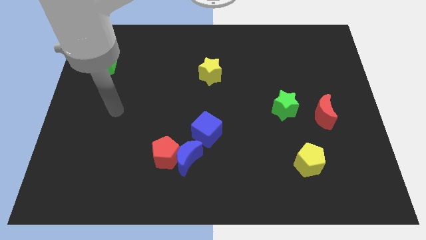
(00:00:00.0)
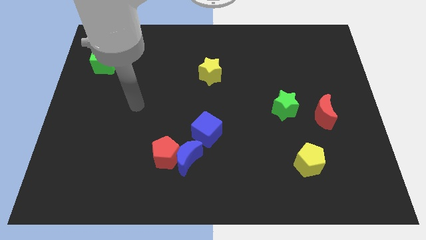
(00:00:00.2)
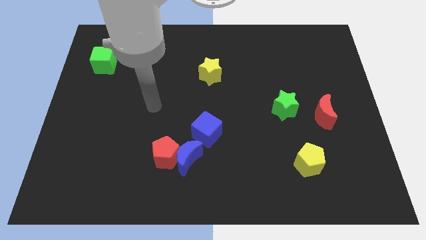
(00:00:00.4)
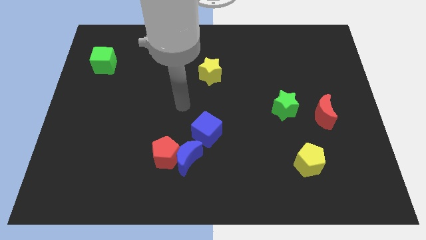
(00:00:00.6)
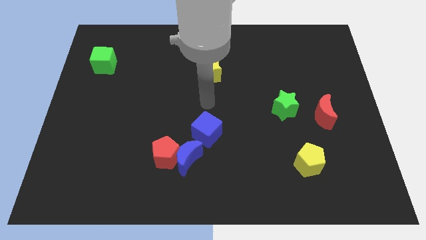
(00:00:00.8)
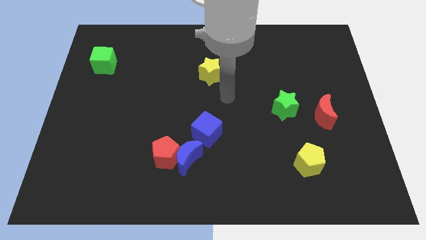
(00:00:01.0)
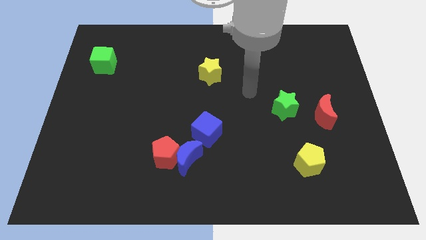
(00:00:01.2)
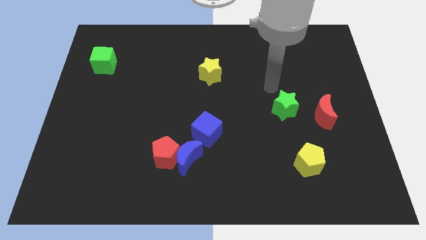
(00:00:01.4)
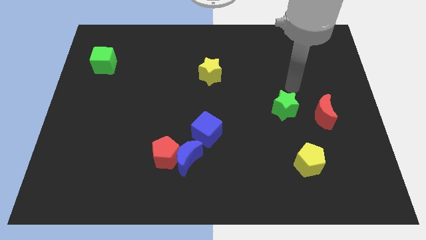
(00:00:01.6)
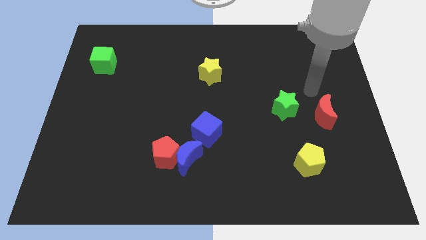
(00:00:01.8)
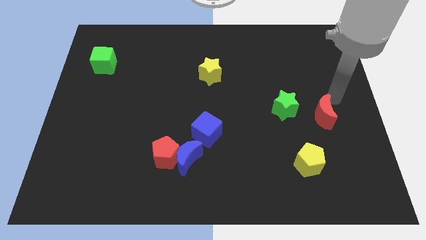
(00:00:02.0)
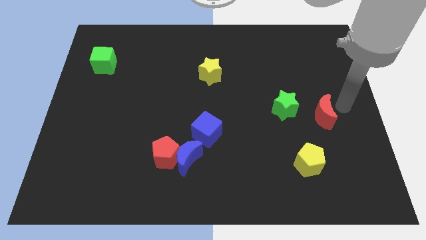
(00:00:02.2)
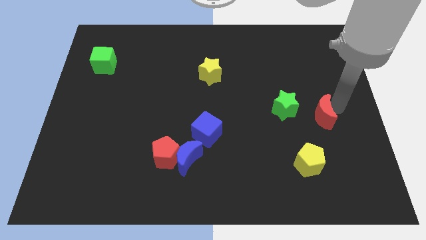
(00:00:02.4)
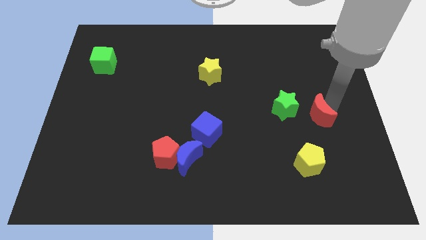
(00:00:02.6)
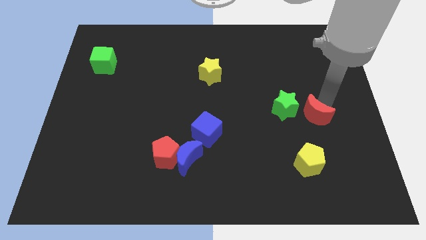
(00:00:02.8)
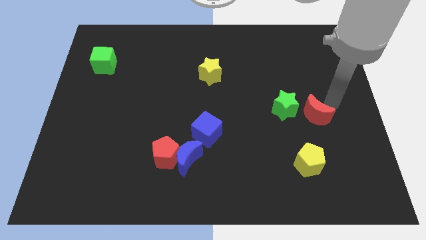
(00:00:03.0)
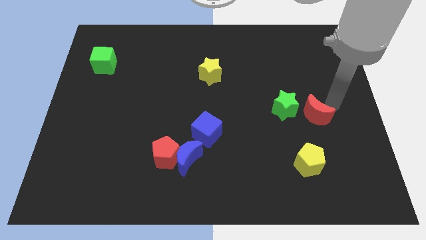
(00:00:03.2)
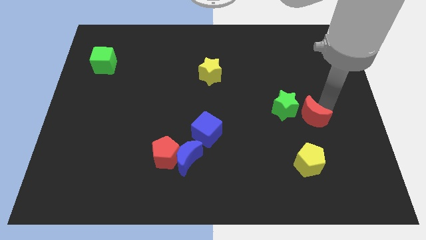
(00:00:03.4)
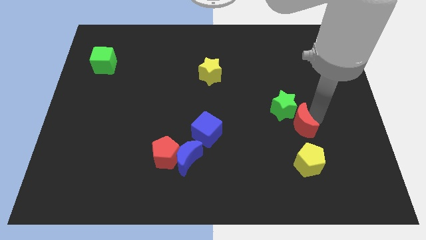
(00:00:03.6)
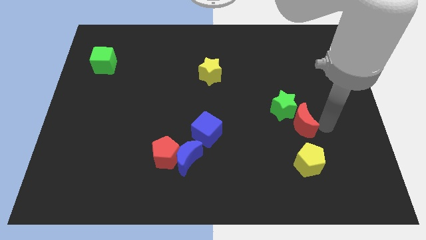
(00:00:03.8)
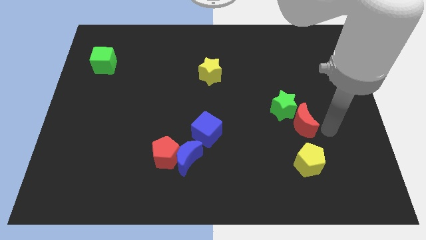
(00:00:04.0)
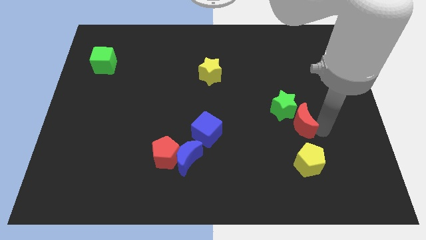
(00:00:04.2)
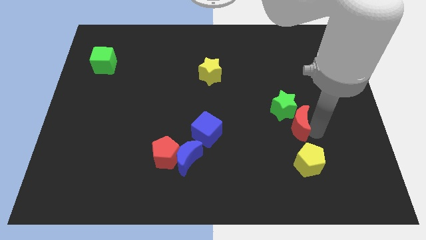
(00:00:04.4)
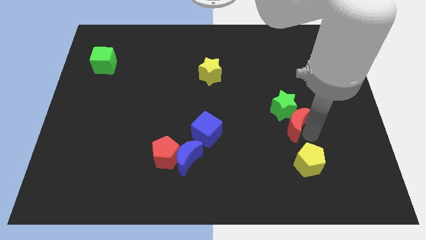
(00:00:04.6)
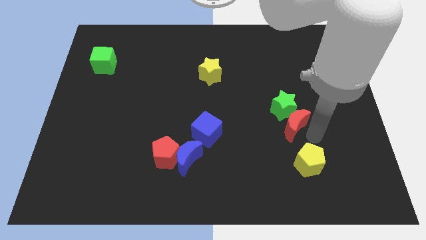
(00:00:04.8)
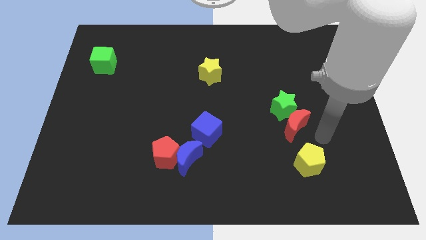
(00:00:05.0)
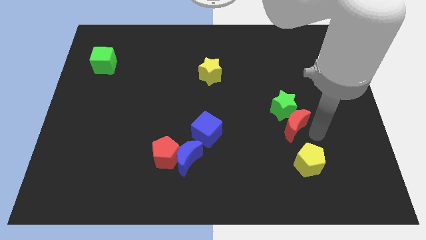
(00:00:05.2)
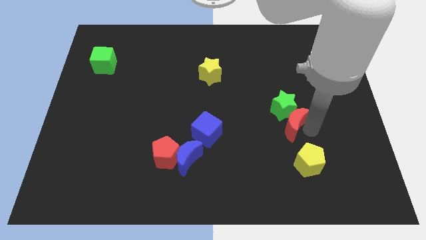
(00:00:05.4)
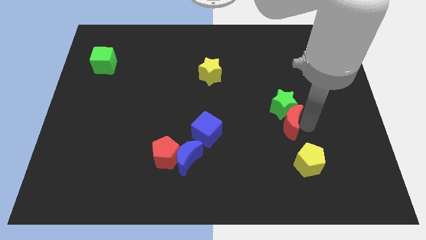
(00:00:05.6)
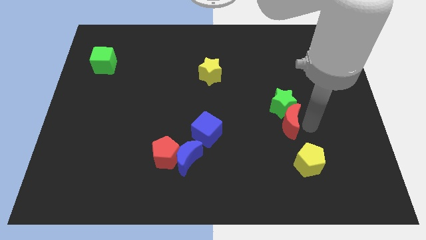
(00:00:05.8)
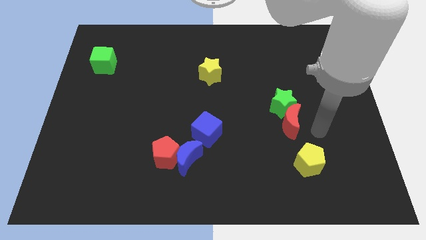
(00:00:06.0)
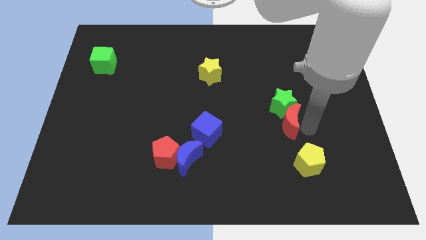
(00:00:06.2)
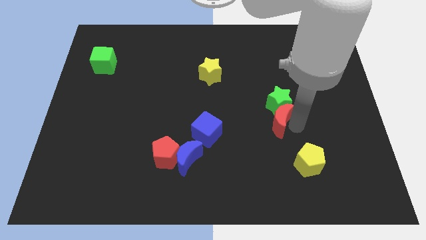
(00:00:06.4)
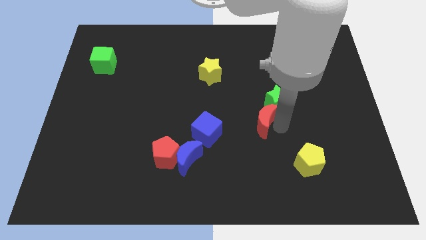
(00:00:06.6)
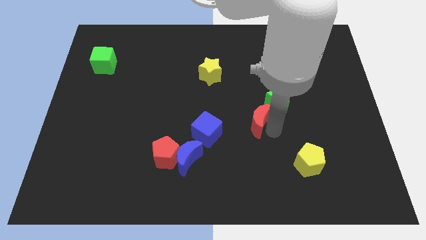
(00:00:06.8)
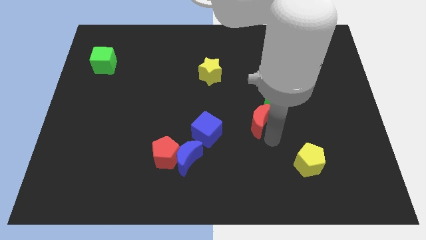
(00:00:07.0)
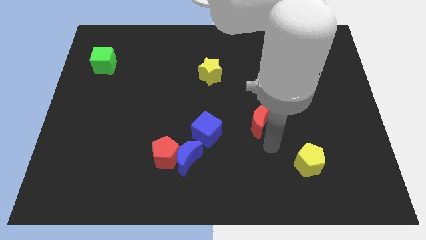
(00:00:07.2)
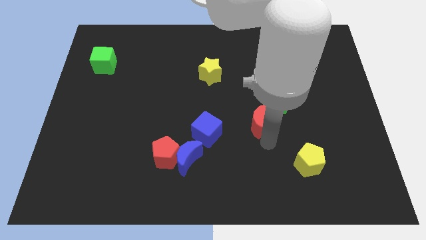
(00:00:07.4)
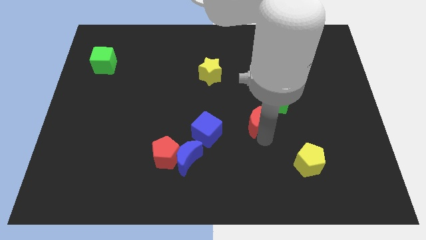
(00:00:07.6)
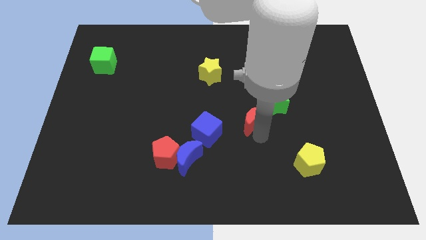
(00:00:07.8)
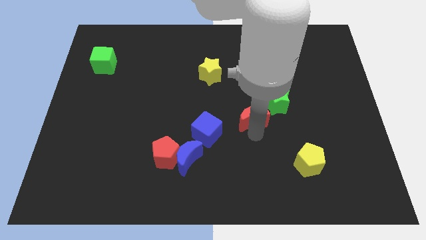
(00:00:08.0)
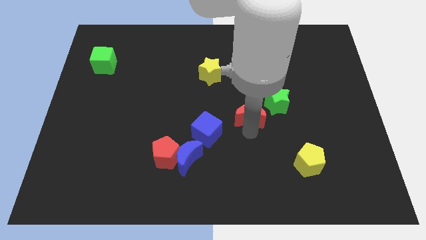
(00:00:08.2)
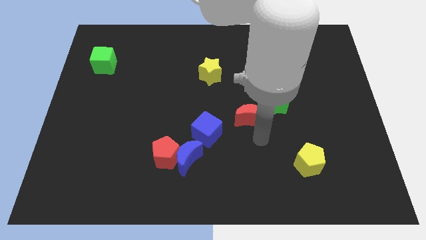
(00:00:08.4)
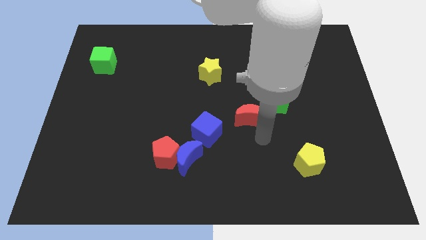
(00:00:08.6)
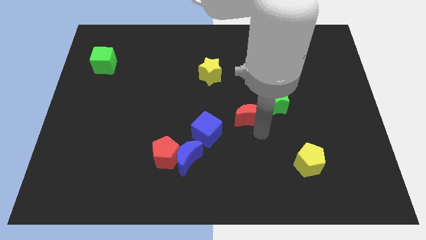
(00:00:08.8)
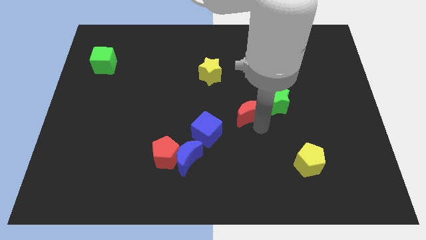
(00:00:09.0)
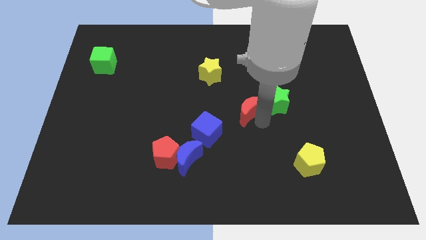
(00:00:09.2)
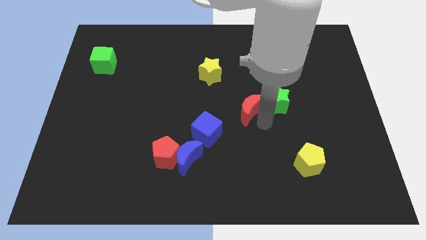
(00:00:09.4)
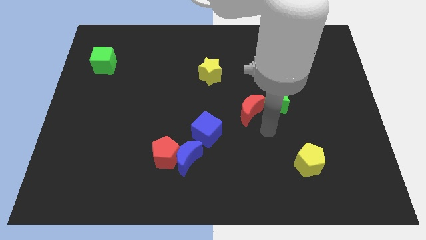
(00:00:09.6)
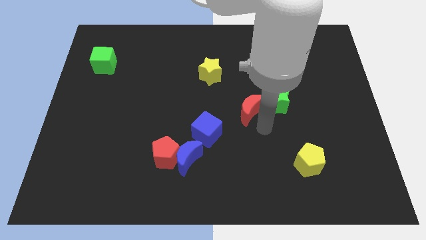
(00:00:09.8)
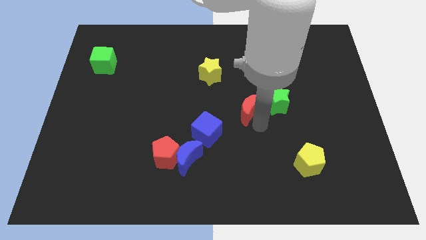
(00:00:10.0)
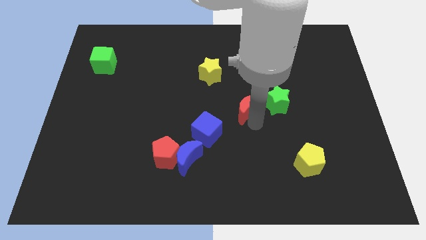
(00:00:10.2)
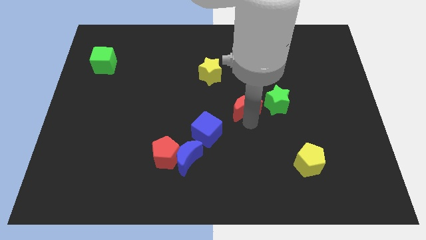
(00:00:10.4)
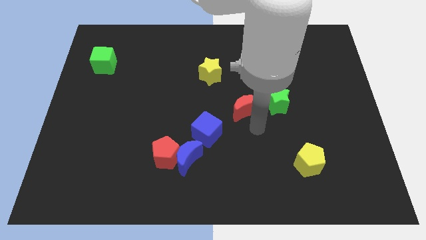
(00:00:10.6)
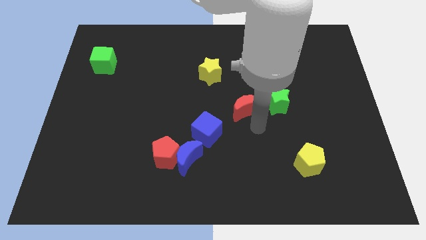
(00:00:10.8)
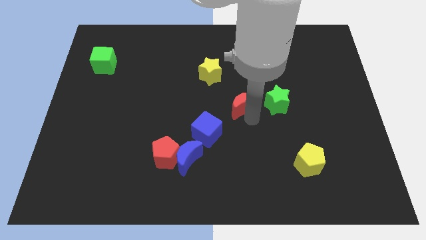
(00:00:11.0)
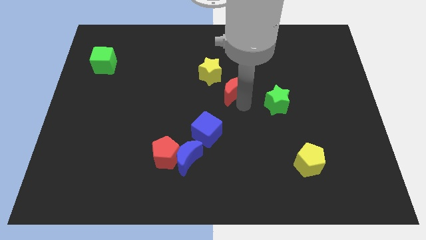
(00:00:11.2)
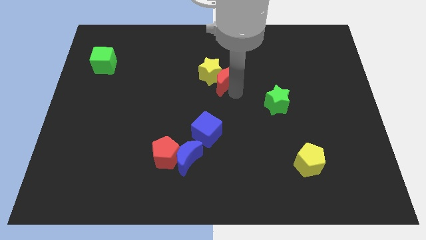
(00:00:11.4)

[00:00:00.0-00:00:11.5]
move the red moon to the yellow star

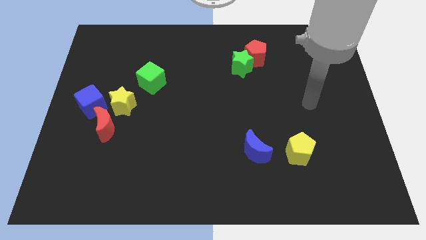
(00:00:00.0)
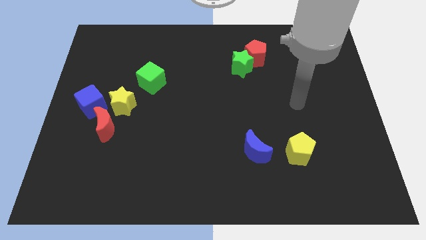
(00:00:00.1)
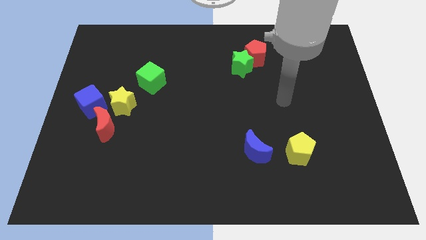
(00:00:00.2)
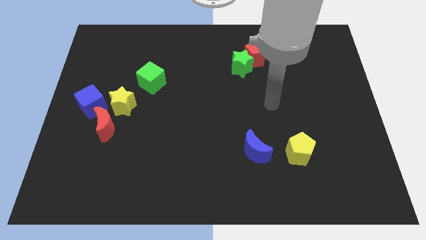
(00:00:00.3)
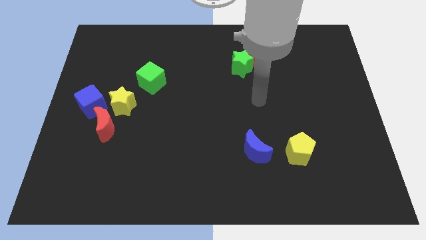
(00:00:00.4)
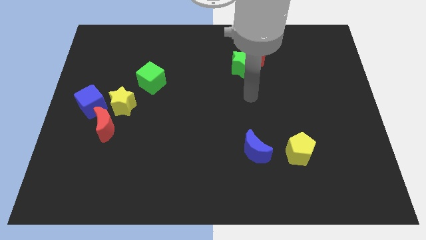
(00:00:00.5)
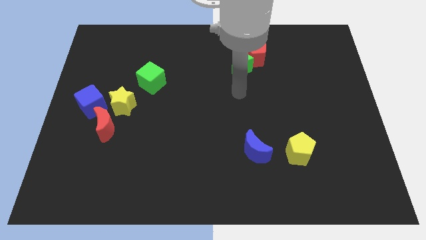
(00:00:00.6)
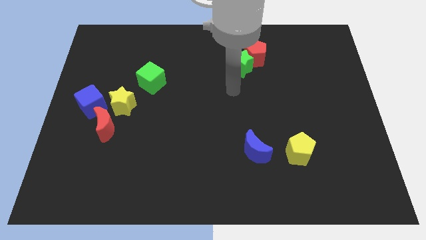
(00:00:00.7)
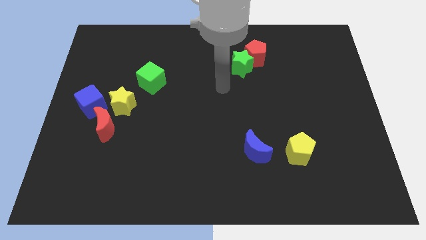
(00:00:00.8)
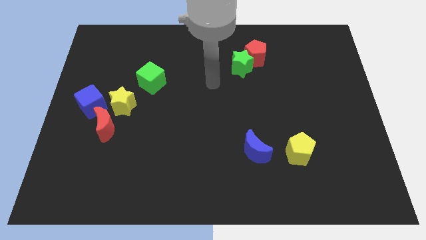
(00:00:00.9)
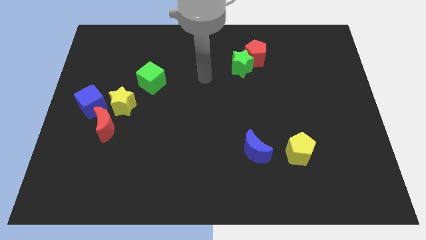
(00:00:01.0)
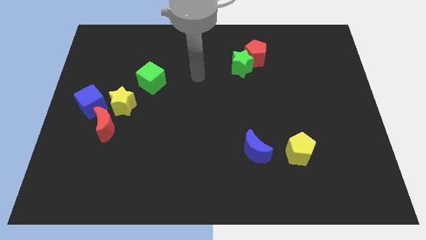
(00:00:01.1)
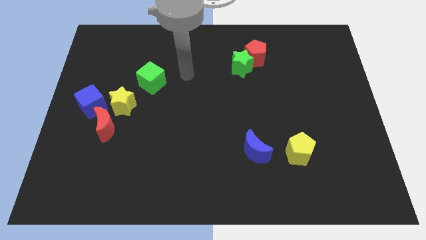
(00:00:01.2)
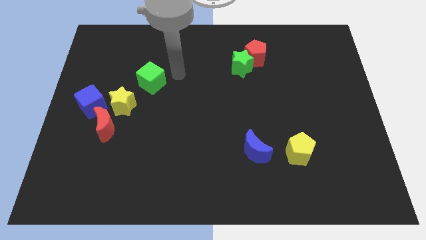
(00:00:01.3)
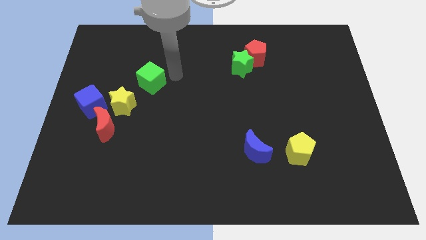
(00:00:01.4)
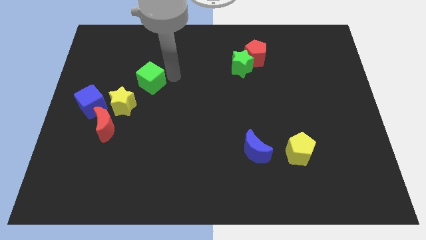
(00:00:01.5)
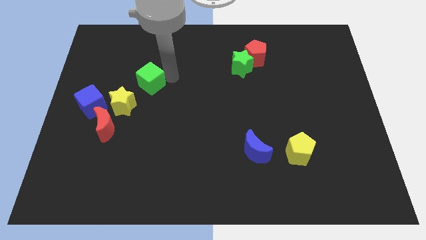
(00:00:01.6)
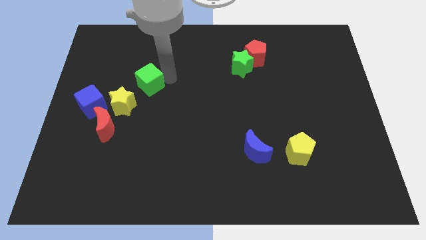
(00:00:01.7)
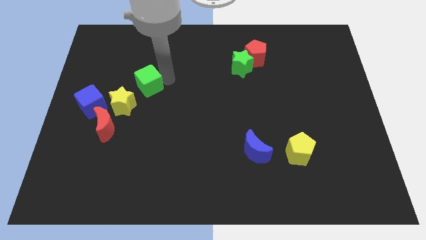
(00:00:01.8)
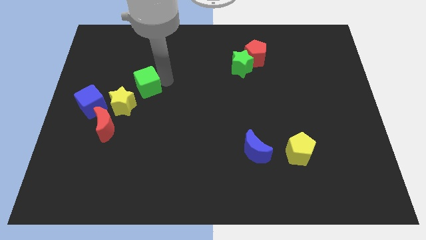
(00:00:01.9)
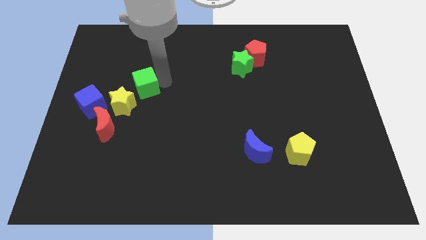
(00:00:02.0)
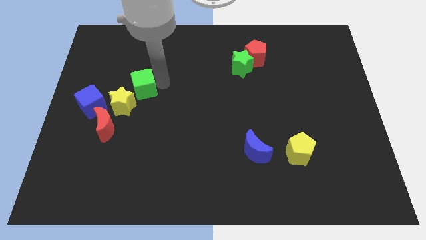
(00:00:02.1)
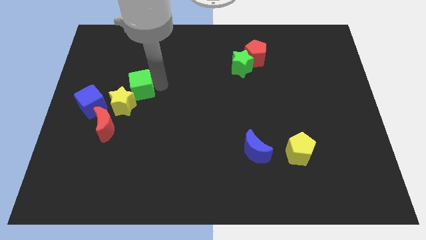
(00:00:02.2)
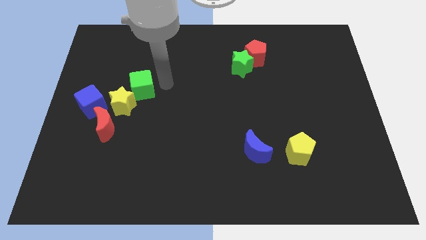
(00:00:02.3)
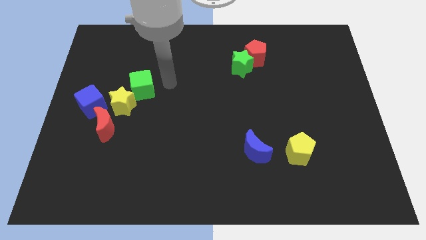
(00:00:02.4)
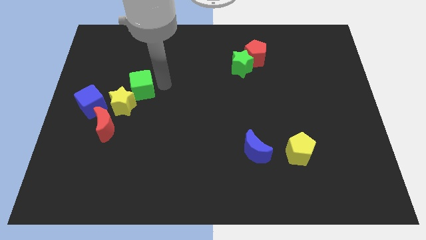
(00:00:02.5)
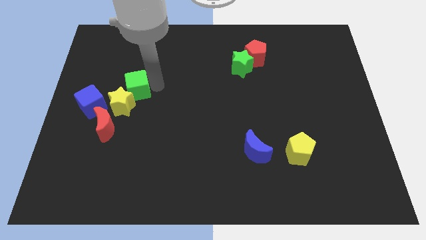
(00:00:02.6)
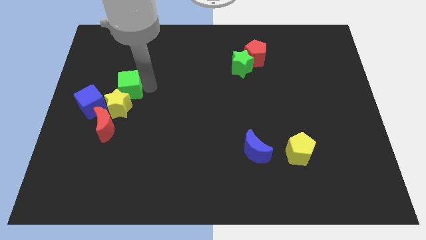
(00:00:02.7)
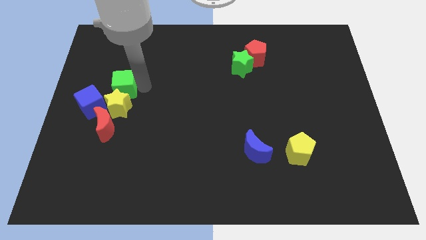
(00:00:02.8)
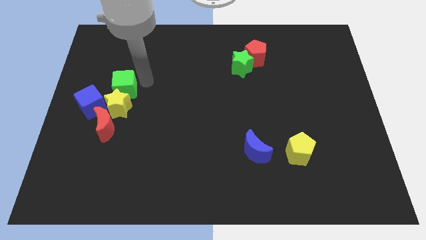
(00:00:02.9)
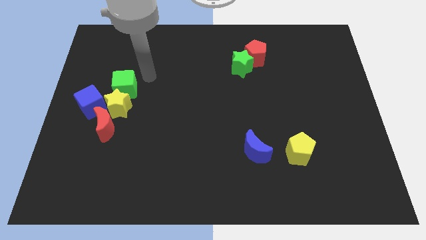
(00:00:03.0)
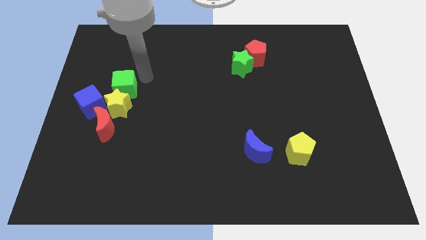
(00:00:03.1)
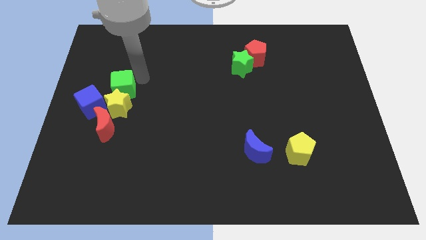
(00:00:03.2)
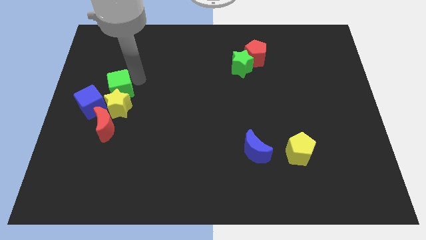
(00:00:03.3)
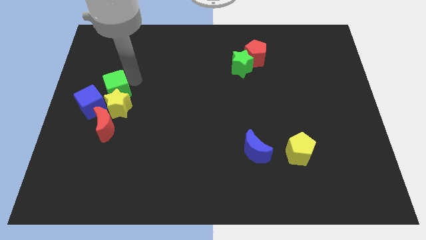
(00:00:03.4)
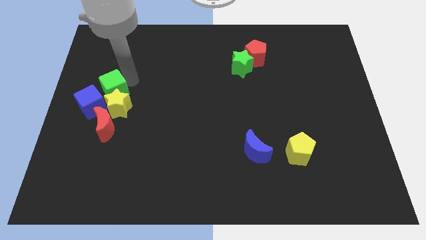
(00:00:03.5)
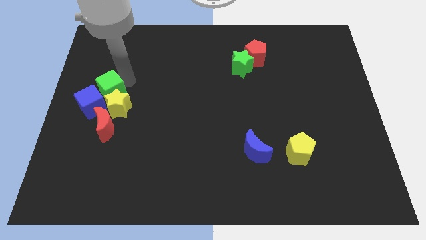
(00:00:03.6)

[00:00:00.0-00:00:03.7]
move the green cube to the blue cube
